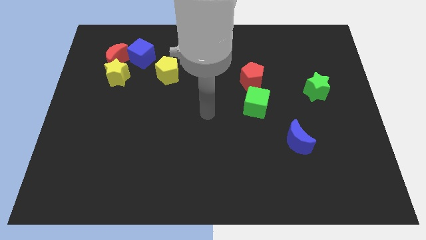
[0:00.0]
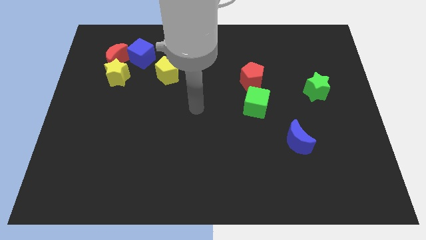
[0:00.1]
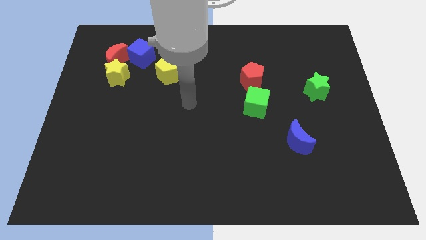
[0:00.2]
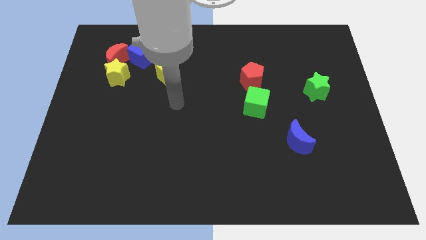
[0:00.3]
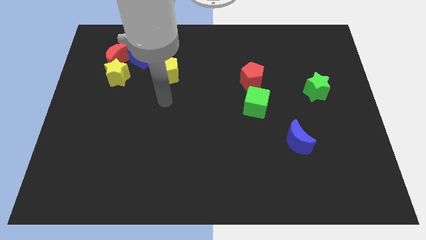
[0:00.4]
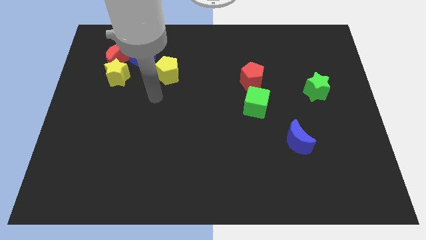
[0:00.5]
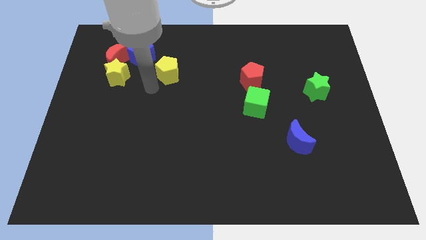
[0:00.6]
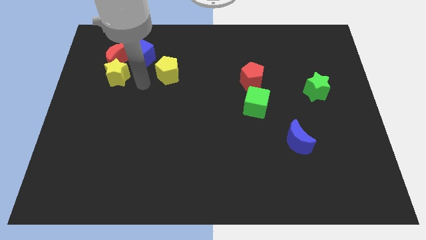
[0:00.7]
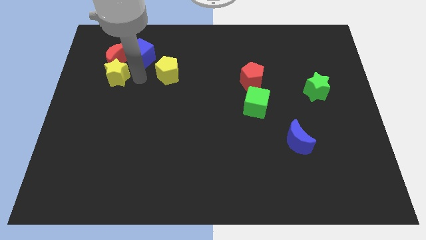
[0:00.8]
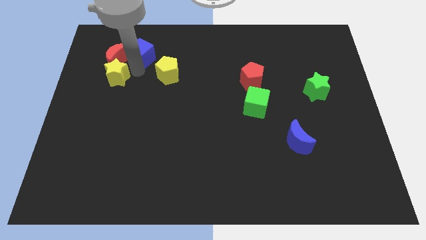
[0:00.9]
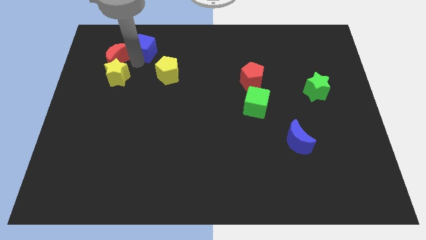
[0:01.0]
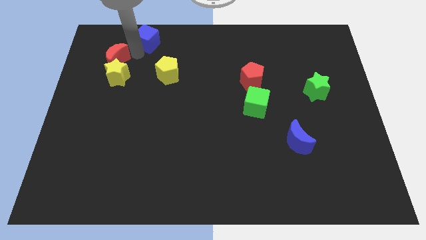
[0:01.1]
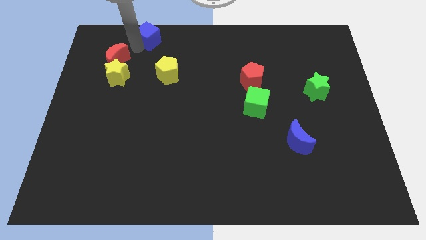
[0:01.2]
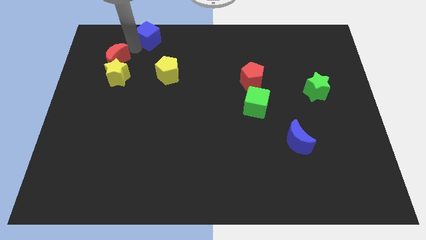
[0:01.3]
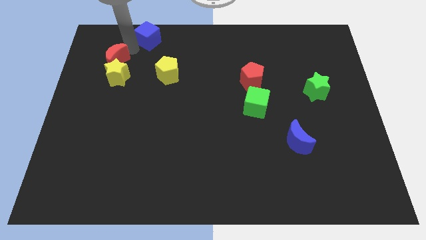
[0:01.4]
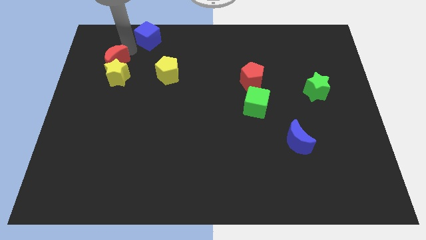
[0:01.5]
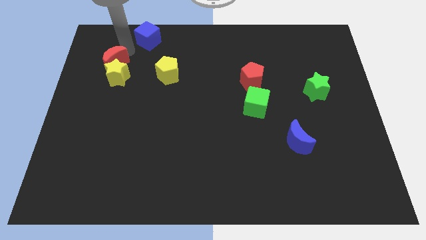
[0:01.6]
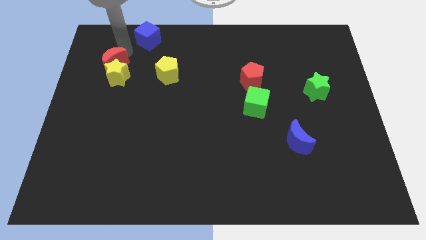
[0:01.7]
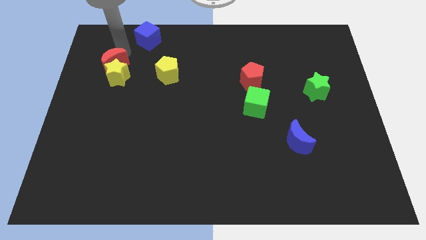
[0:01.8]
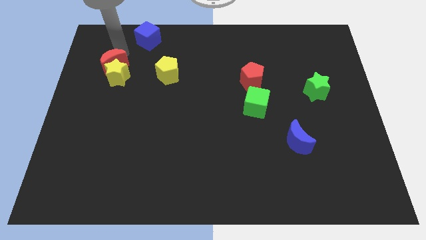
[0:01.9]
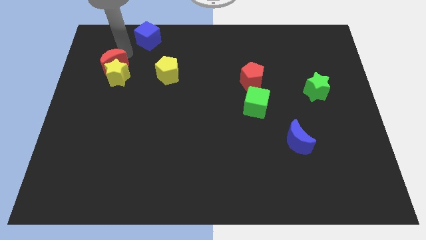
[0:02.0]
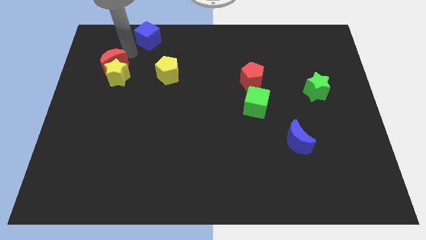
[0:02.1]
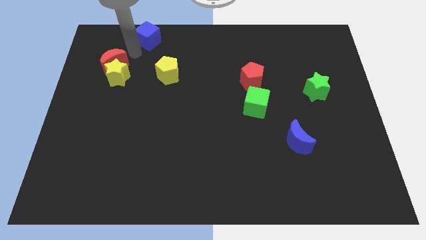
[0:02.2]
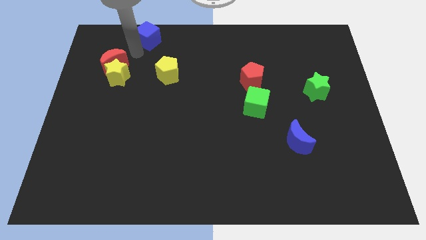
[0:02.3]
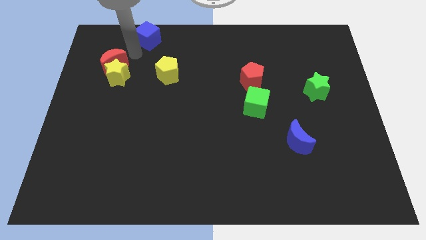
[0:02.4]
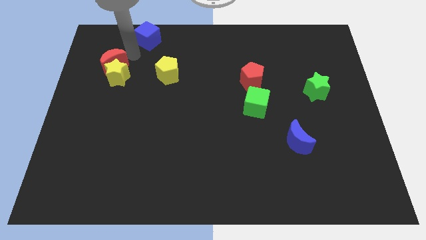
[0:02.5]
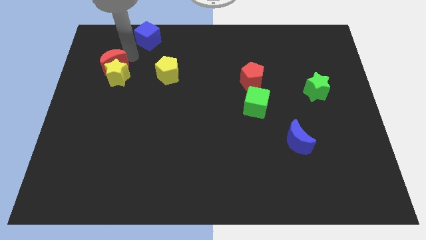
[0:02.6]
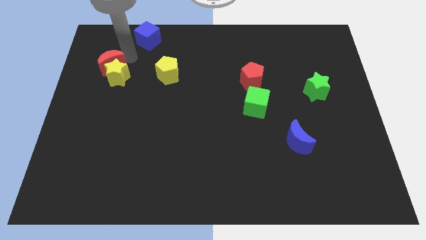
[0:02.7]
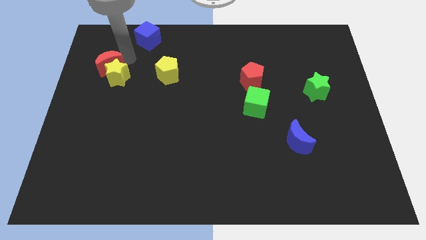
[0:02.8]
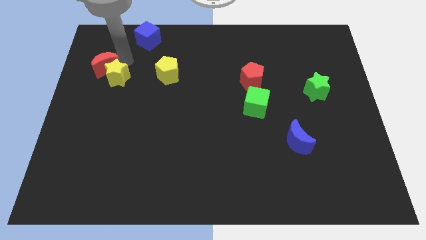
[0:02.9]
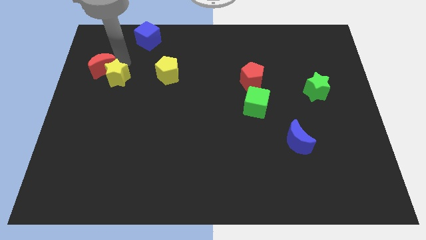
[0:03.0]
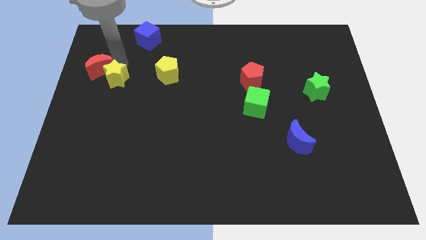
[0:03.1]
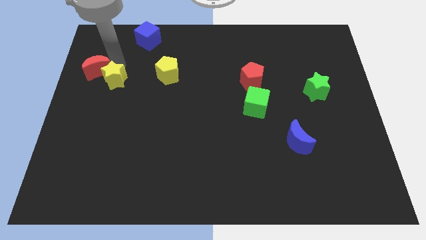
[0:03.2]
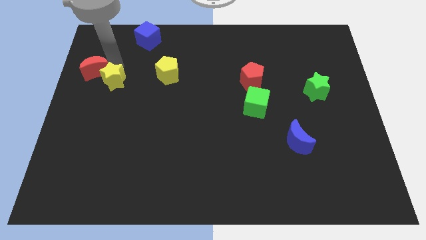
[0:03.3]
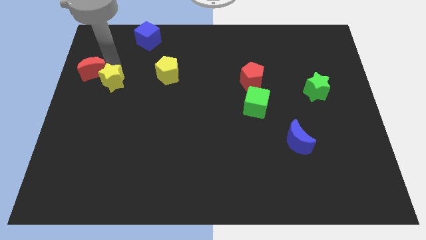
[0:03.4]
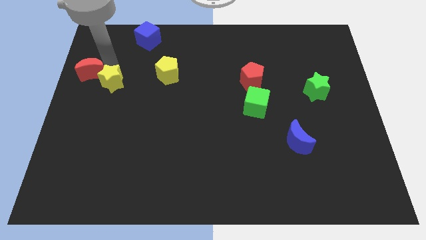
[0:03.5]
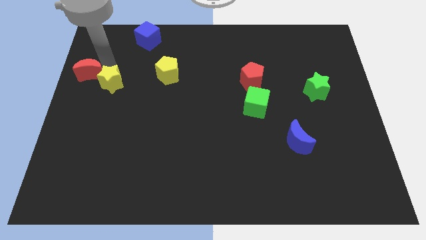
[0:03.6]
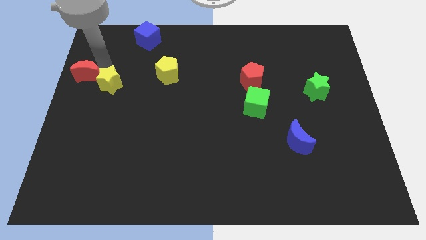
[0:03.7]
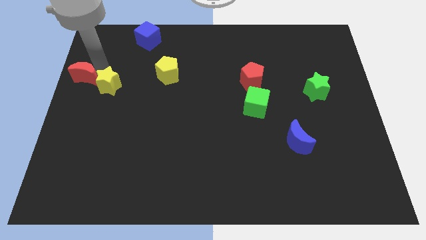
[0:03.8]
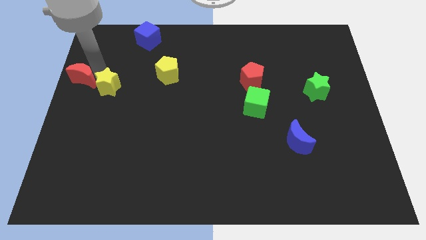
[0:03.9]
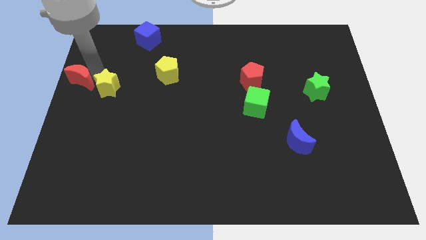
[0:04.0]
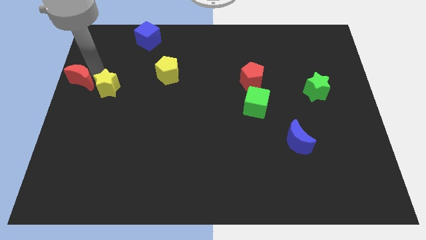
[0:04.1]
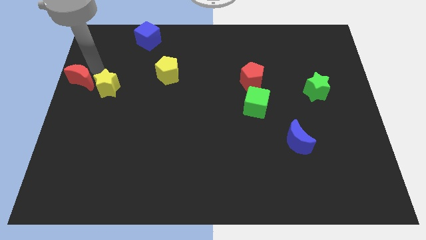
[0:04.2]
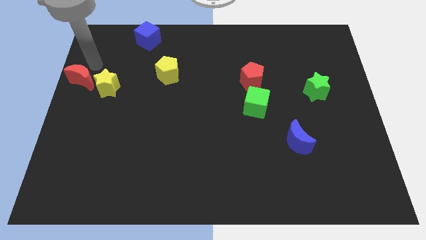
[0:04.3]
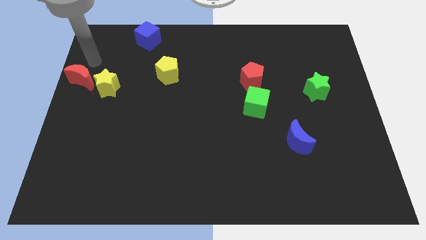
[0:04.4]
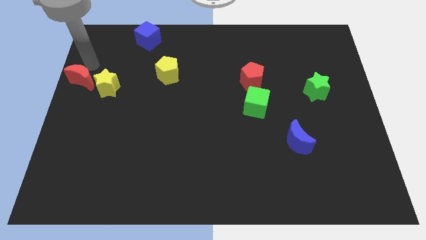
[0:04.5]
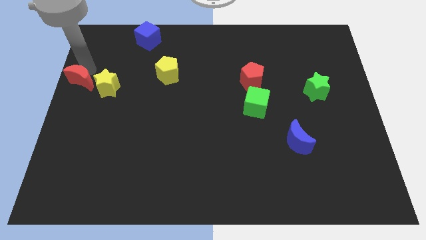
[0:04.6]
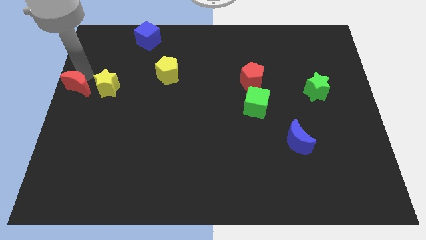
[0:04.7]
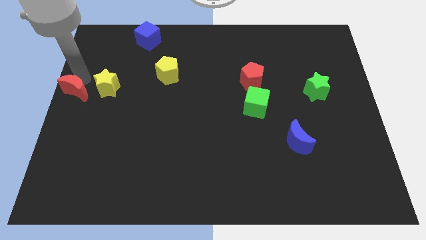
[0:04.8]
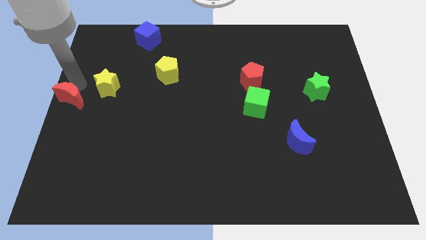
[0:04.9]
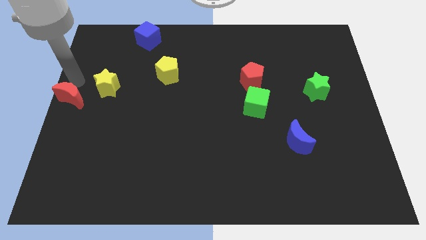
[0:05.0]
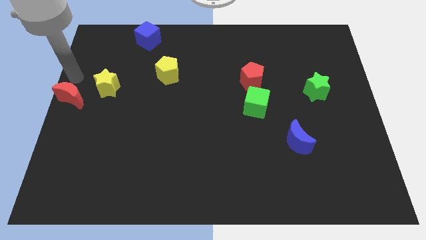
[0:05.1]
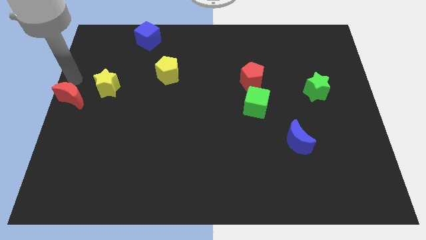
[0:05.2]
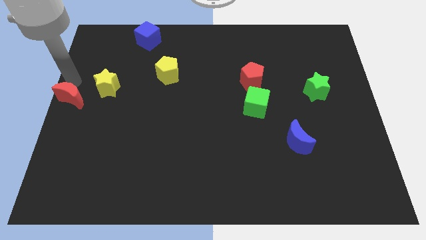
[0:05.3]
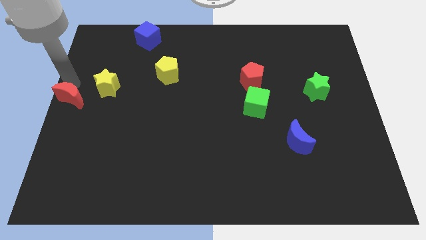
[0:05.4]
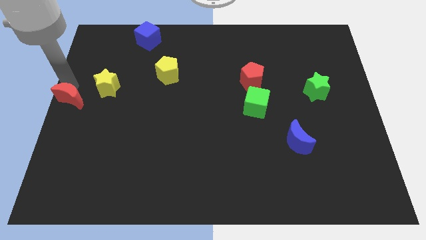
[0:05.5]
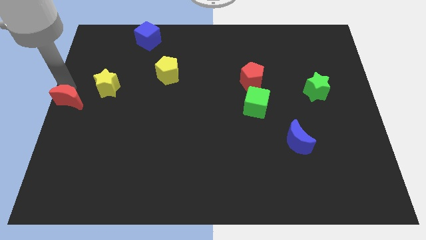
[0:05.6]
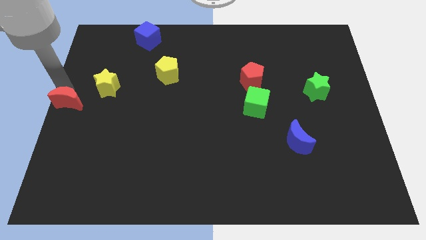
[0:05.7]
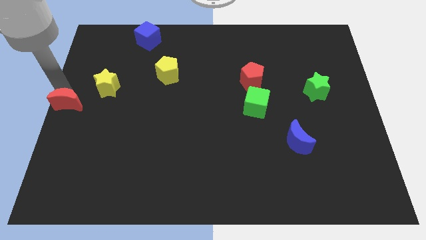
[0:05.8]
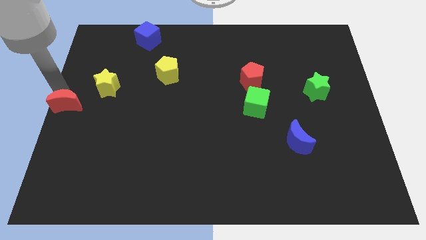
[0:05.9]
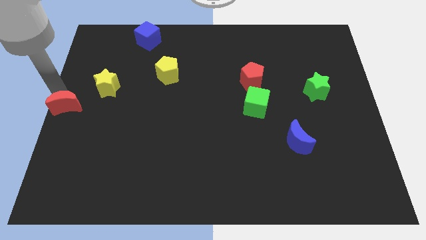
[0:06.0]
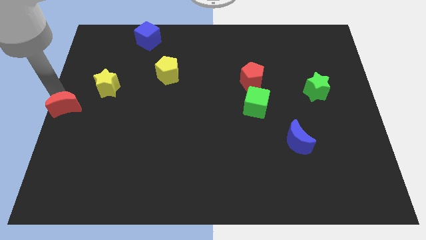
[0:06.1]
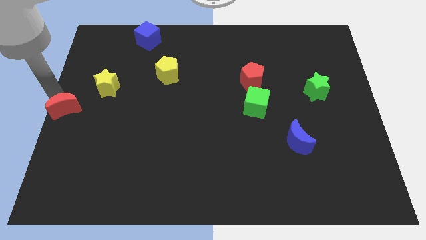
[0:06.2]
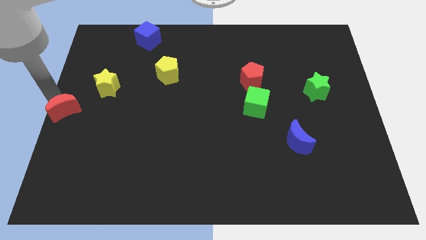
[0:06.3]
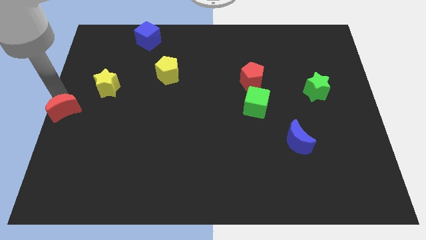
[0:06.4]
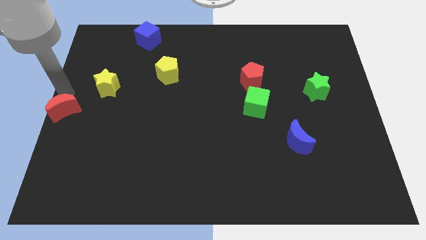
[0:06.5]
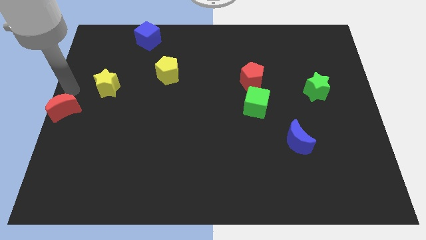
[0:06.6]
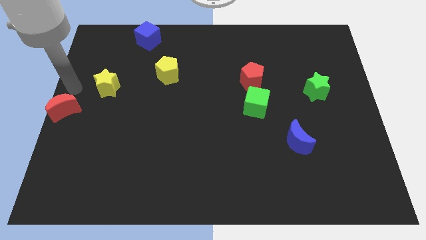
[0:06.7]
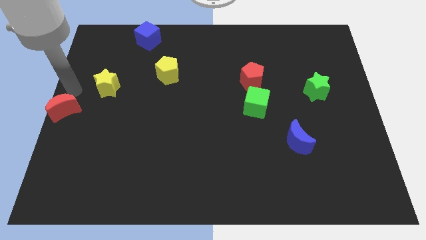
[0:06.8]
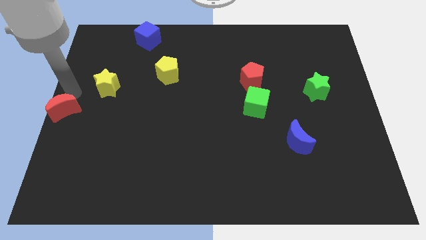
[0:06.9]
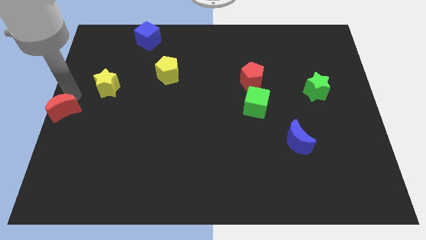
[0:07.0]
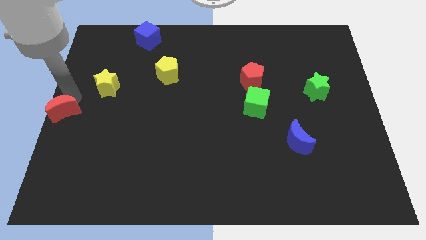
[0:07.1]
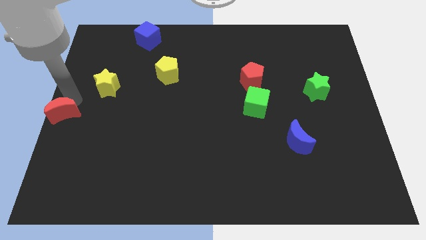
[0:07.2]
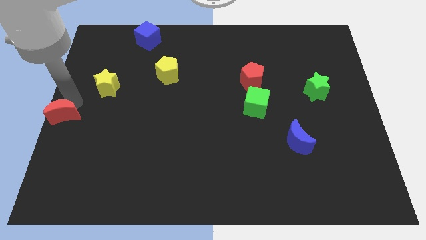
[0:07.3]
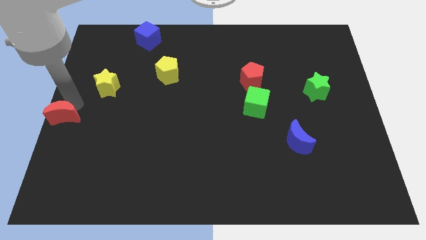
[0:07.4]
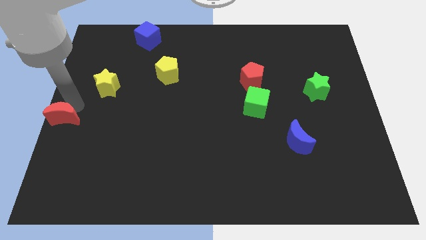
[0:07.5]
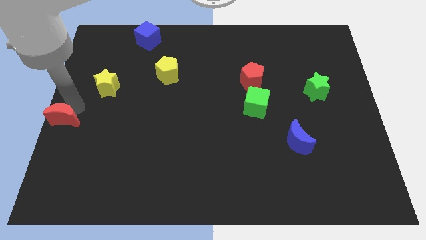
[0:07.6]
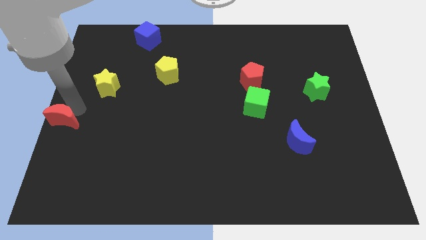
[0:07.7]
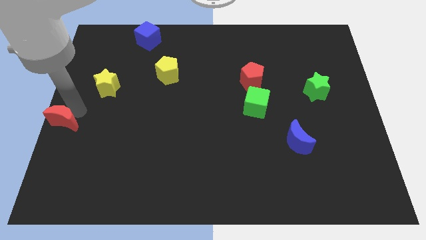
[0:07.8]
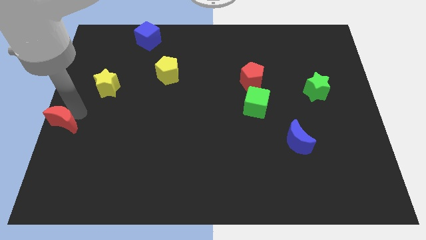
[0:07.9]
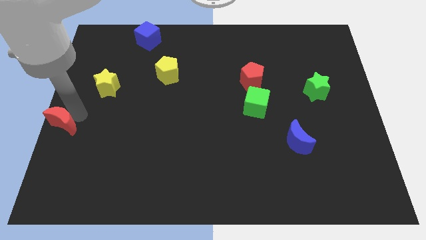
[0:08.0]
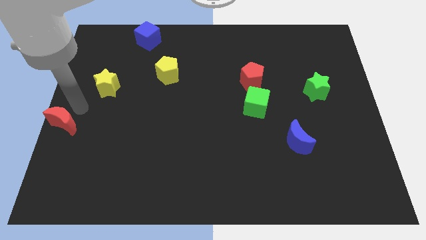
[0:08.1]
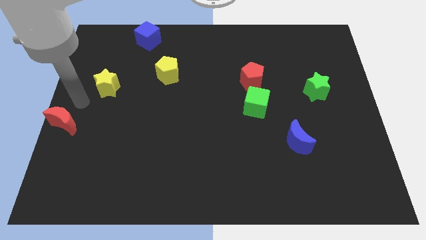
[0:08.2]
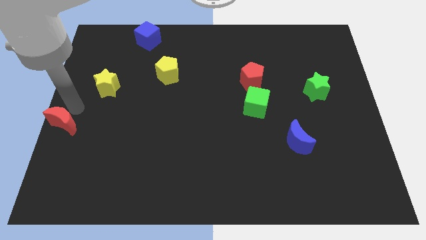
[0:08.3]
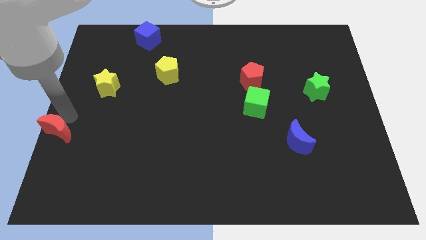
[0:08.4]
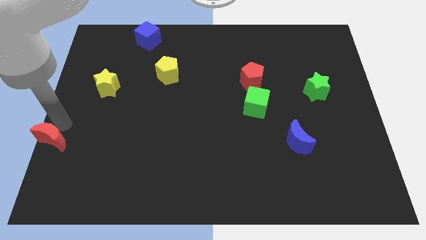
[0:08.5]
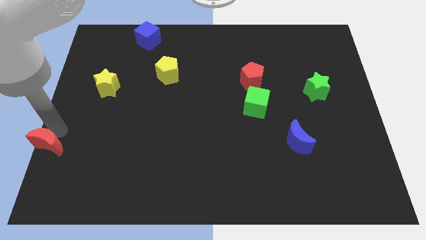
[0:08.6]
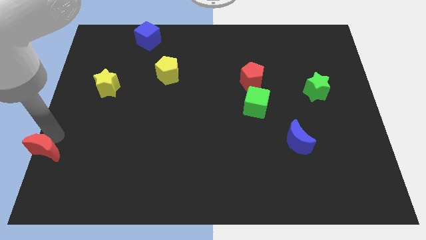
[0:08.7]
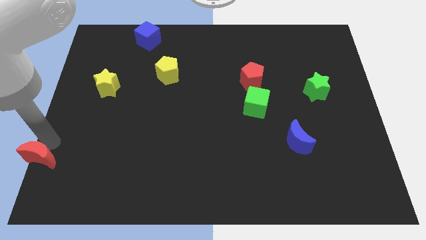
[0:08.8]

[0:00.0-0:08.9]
put the red moon to the lower left corner
